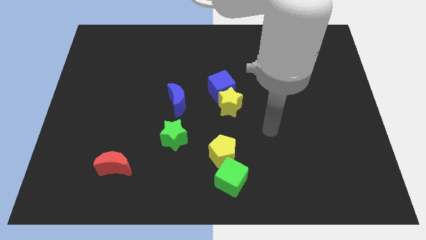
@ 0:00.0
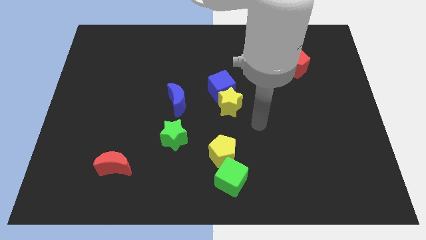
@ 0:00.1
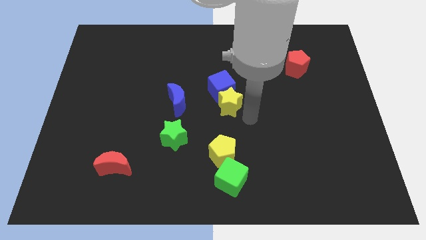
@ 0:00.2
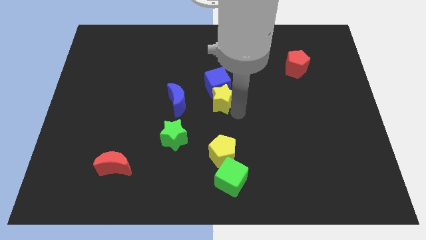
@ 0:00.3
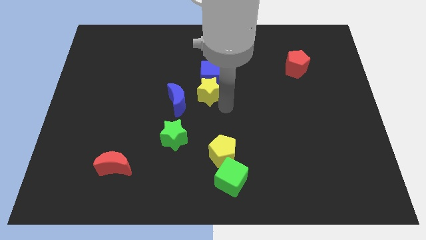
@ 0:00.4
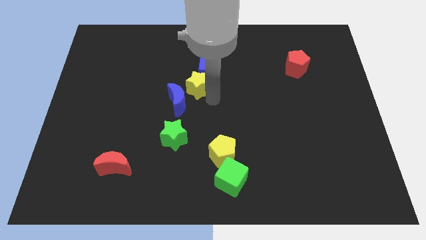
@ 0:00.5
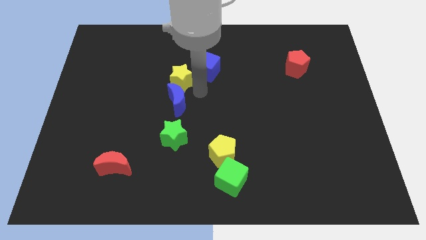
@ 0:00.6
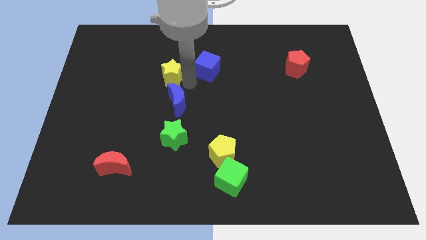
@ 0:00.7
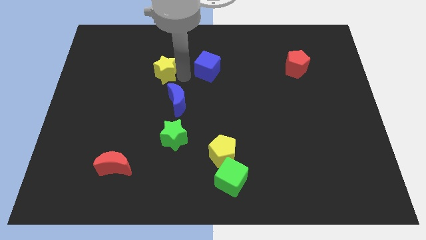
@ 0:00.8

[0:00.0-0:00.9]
pull the blue cube apart from the yellow star

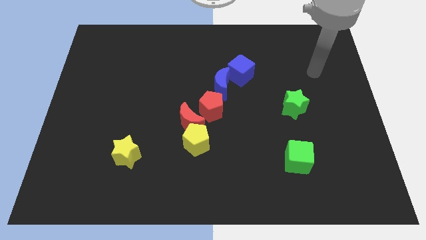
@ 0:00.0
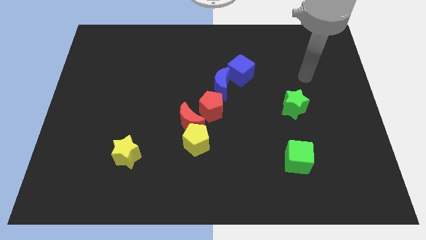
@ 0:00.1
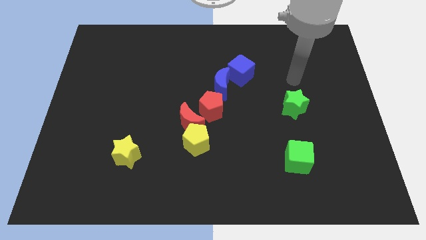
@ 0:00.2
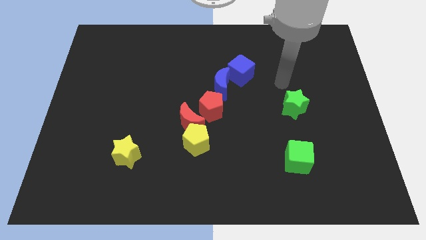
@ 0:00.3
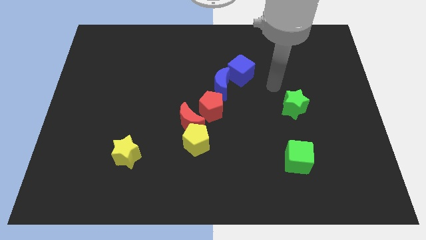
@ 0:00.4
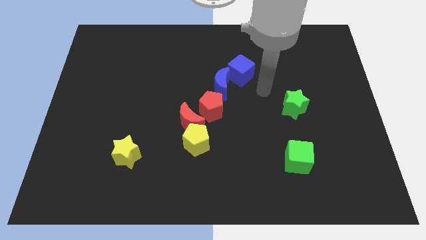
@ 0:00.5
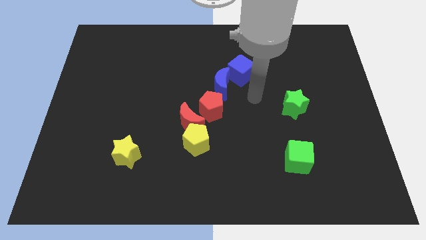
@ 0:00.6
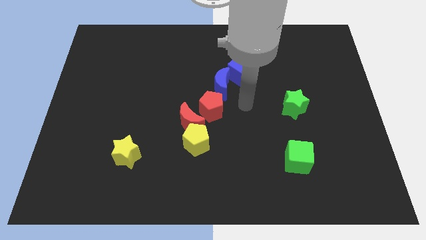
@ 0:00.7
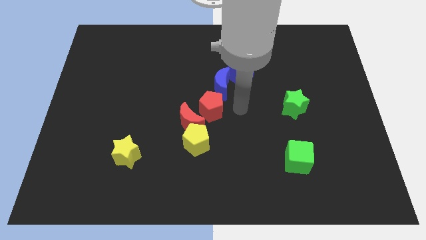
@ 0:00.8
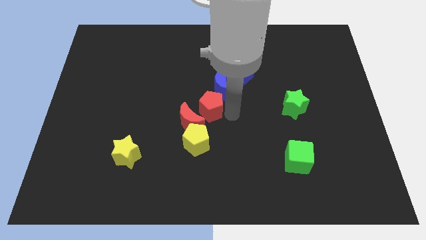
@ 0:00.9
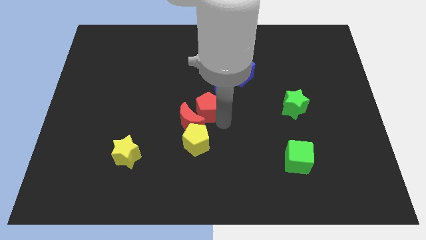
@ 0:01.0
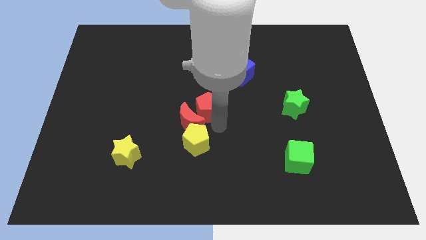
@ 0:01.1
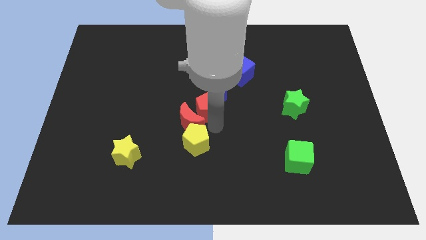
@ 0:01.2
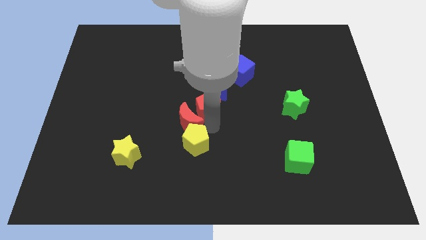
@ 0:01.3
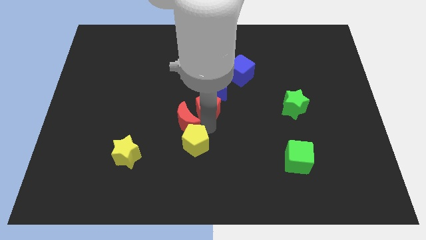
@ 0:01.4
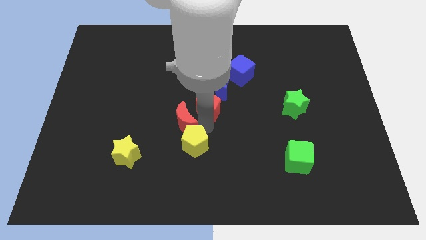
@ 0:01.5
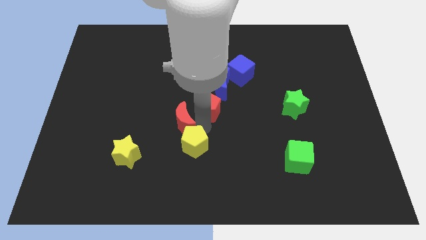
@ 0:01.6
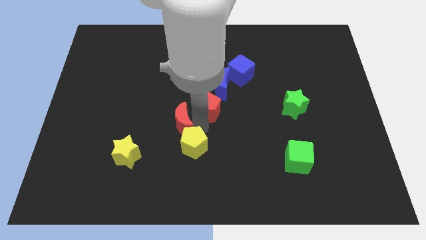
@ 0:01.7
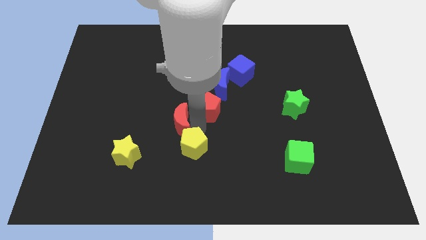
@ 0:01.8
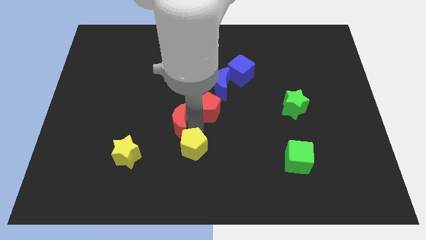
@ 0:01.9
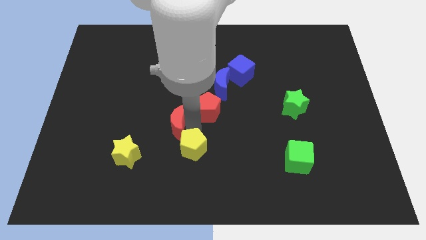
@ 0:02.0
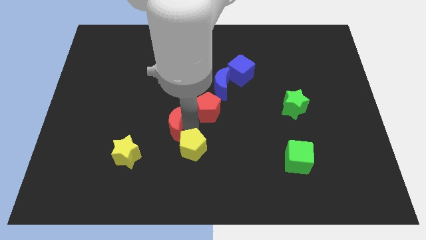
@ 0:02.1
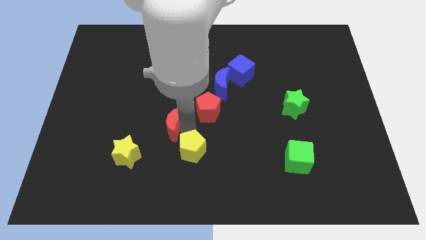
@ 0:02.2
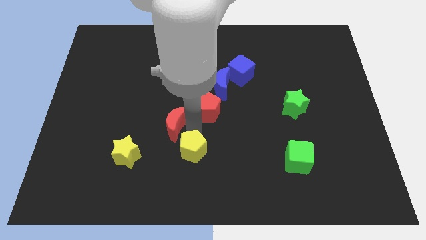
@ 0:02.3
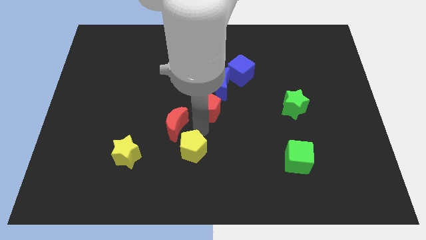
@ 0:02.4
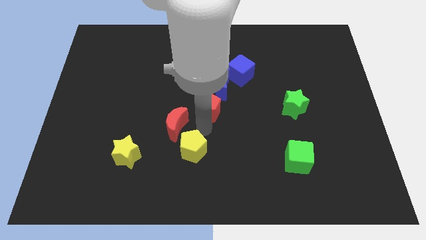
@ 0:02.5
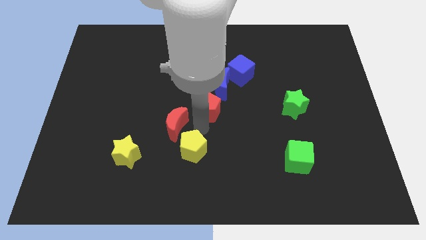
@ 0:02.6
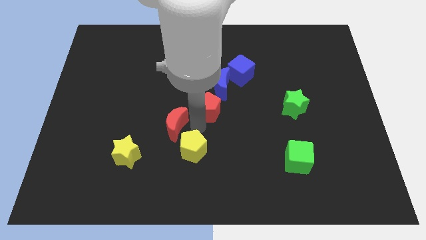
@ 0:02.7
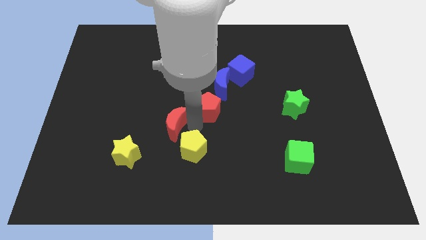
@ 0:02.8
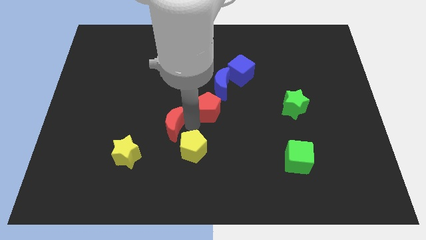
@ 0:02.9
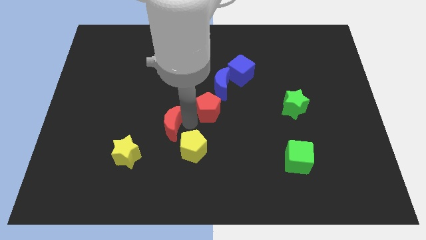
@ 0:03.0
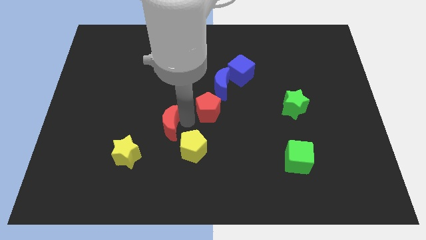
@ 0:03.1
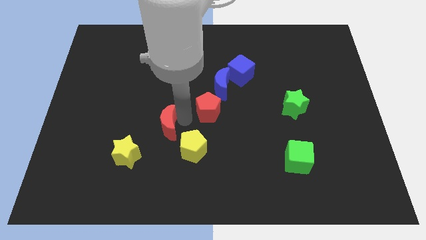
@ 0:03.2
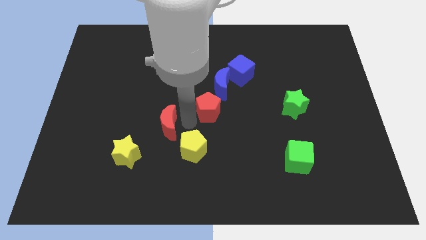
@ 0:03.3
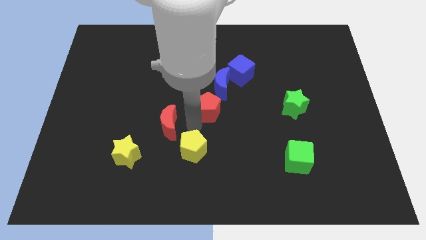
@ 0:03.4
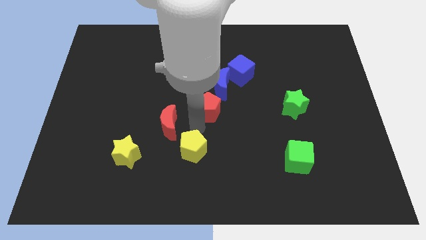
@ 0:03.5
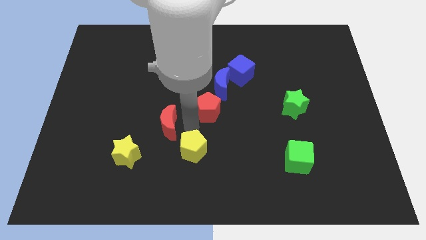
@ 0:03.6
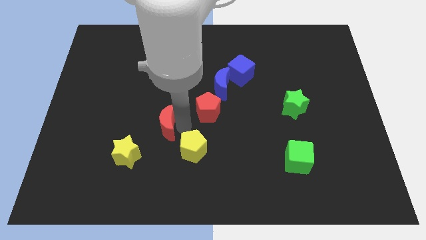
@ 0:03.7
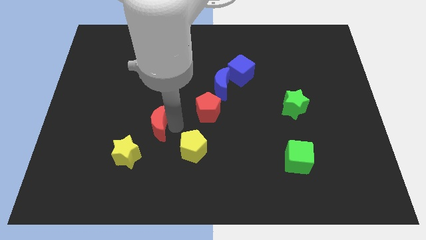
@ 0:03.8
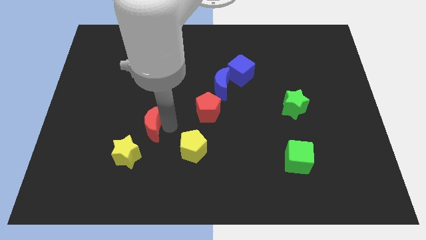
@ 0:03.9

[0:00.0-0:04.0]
separate the red moon from the yellow pentagon and red pentagon

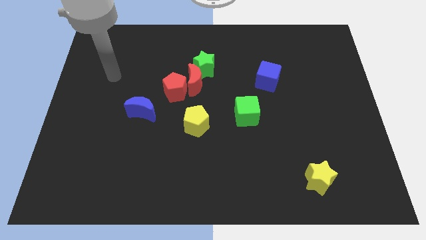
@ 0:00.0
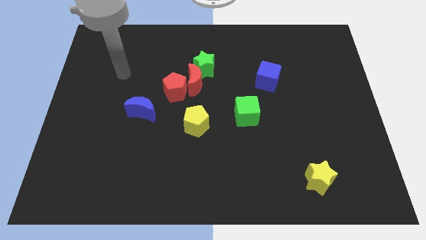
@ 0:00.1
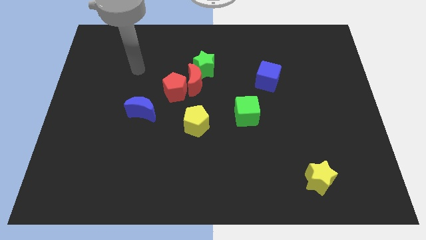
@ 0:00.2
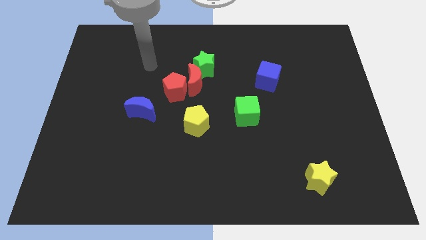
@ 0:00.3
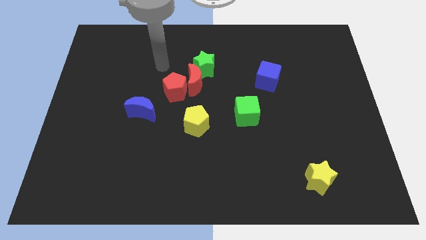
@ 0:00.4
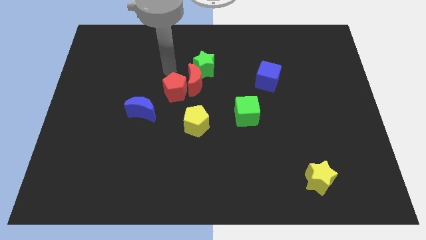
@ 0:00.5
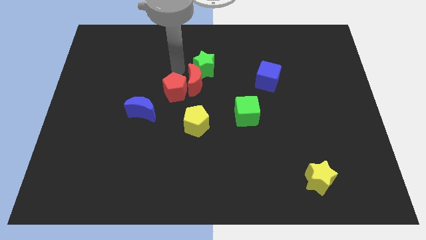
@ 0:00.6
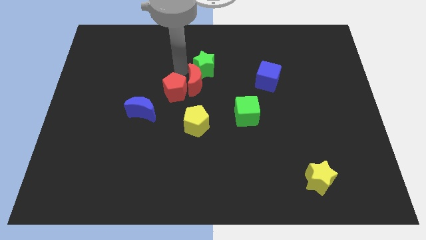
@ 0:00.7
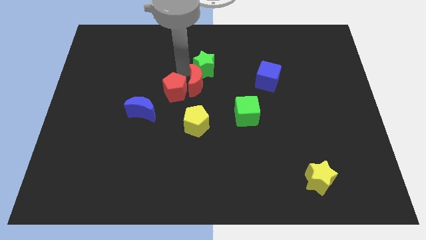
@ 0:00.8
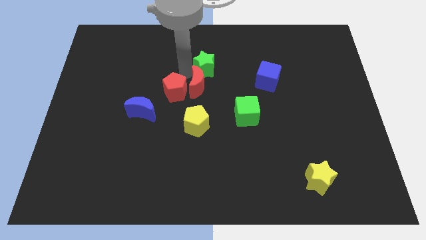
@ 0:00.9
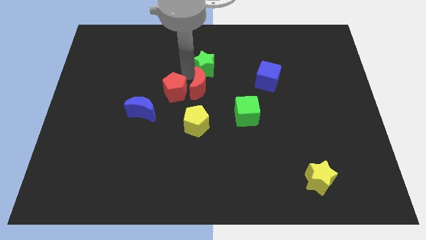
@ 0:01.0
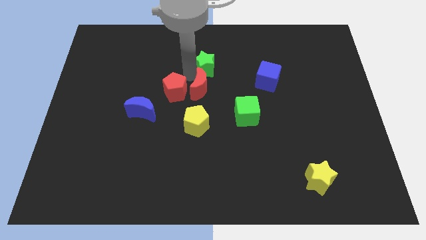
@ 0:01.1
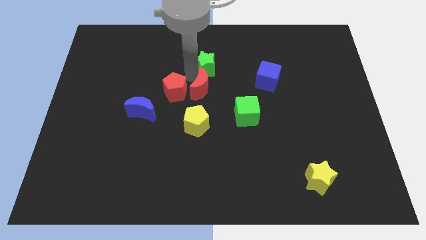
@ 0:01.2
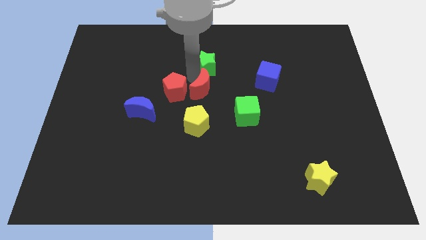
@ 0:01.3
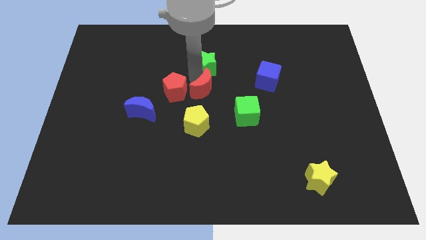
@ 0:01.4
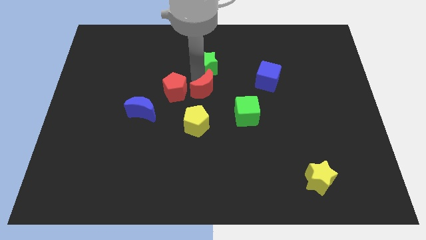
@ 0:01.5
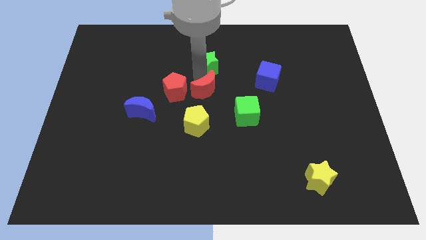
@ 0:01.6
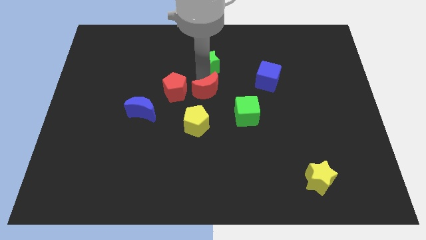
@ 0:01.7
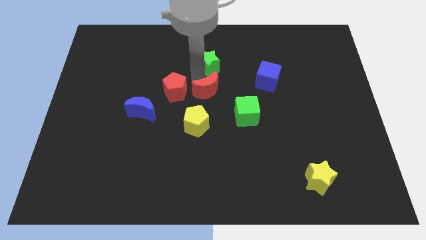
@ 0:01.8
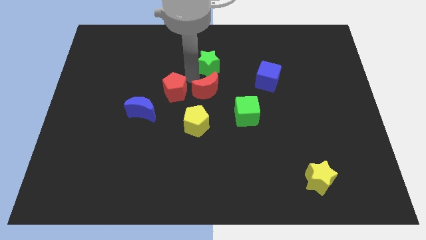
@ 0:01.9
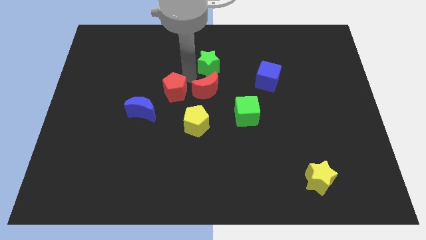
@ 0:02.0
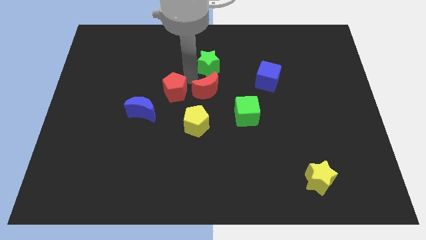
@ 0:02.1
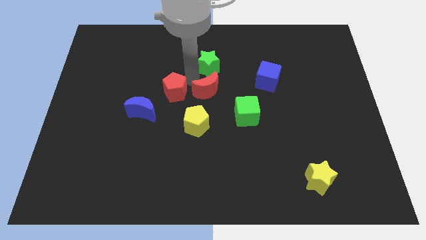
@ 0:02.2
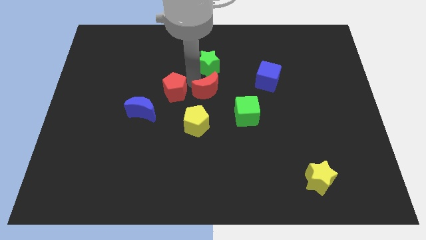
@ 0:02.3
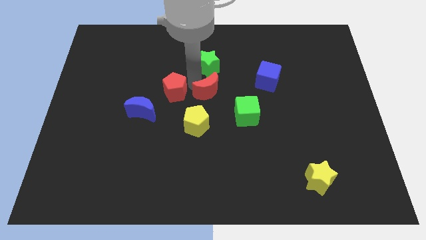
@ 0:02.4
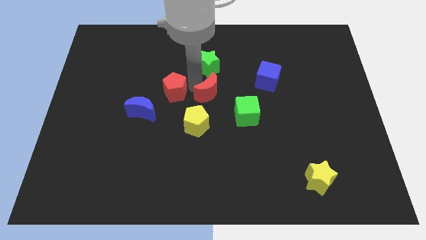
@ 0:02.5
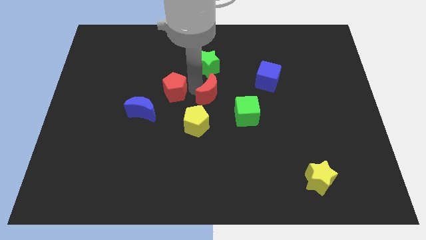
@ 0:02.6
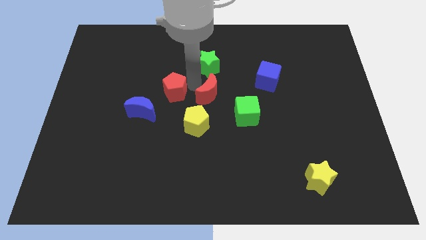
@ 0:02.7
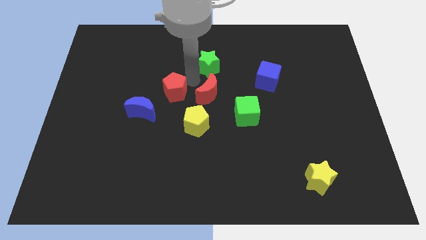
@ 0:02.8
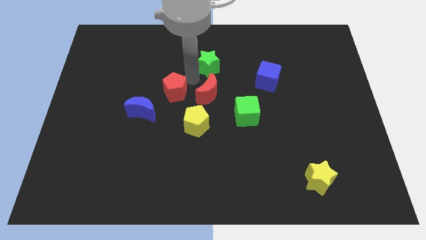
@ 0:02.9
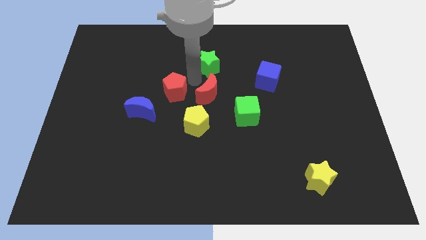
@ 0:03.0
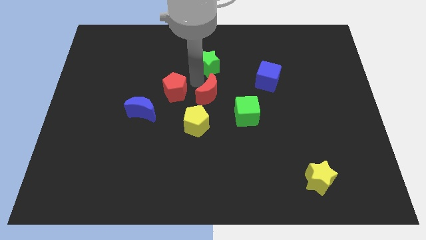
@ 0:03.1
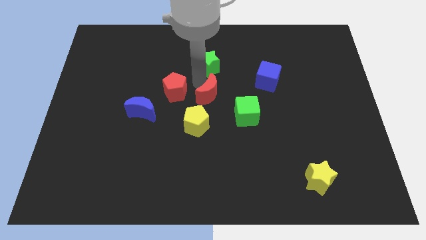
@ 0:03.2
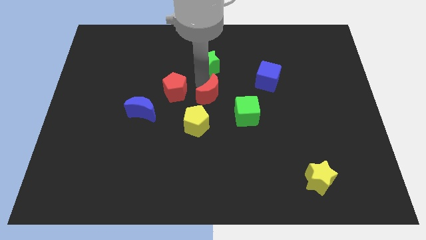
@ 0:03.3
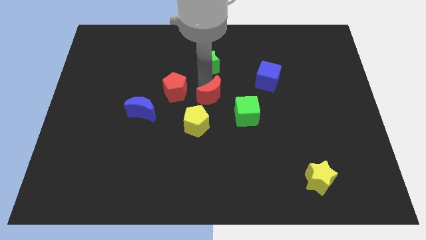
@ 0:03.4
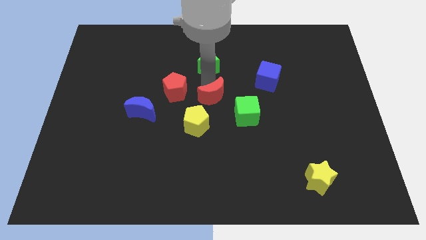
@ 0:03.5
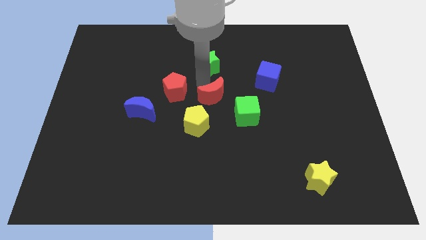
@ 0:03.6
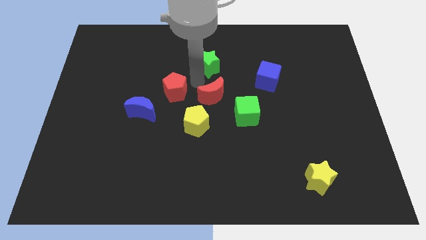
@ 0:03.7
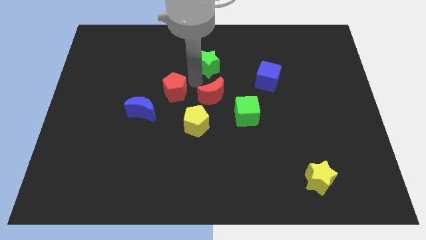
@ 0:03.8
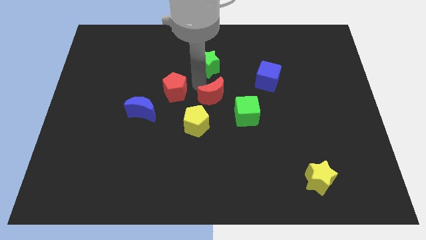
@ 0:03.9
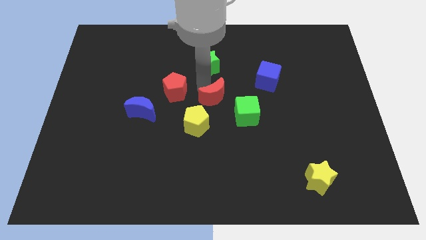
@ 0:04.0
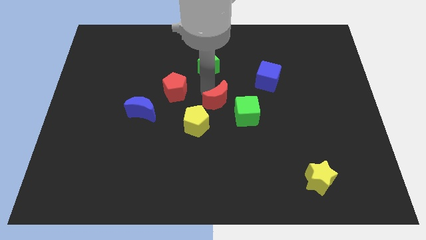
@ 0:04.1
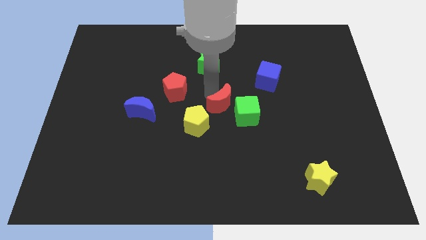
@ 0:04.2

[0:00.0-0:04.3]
move the red moon away from the red pentagon and green star
